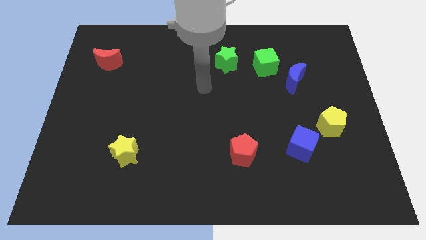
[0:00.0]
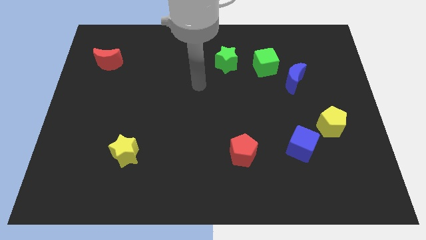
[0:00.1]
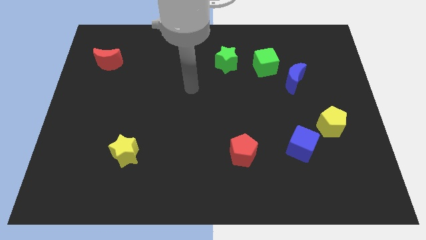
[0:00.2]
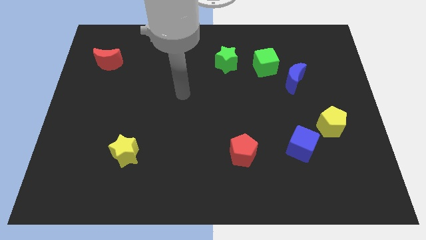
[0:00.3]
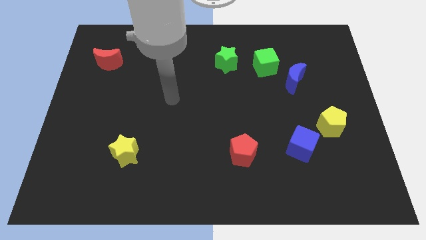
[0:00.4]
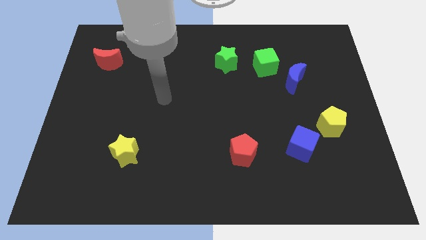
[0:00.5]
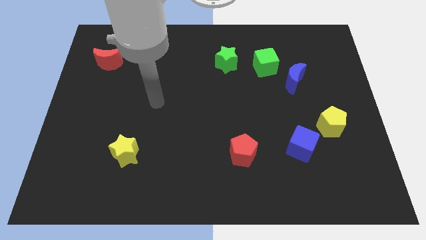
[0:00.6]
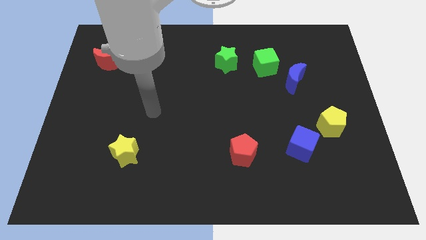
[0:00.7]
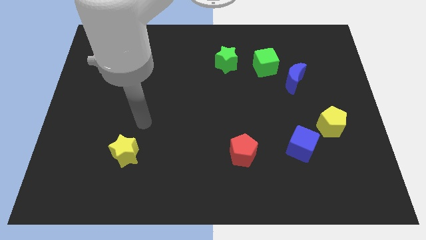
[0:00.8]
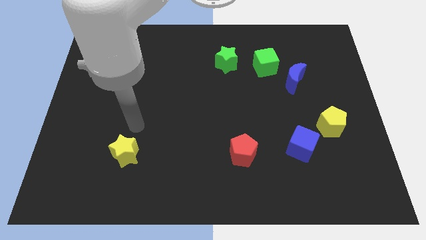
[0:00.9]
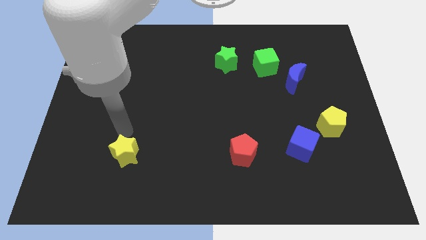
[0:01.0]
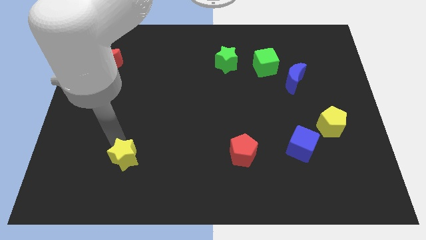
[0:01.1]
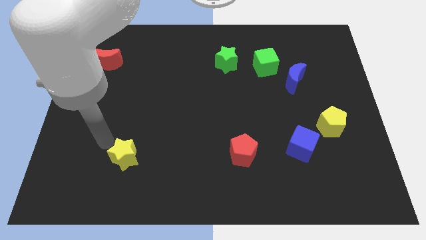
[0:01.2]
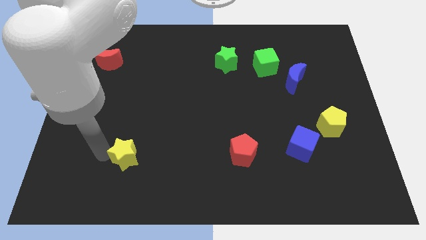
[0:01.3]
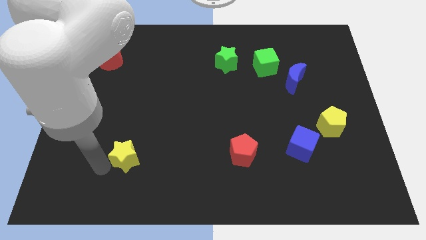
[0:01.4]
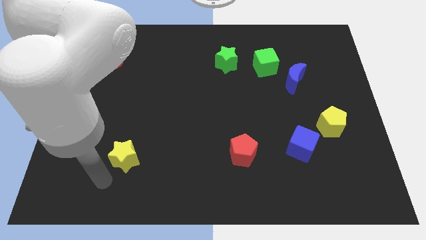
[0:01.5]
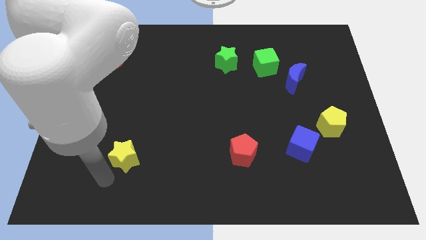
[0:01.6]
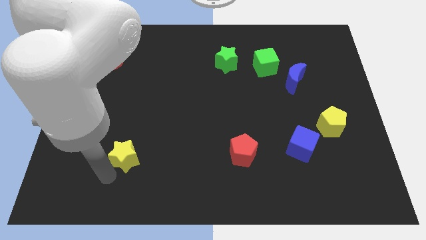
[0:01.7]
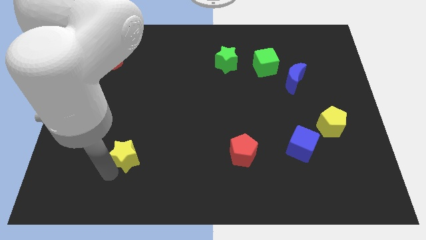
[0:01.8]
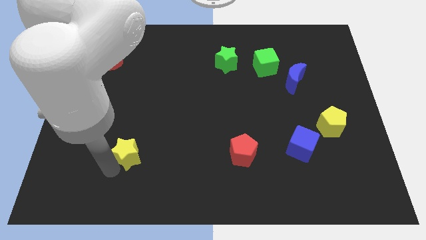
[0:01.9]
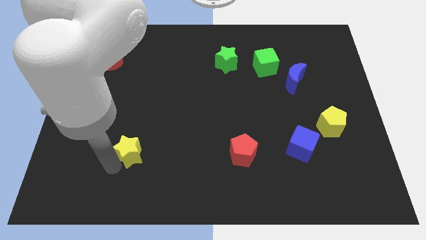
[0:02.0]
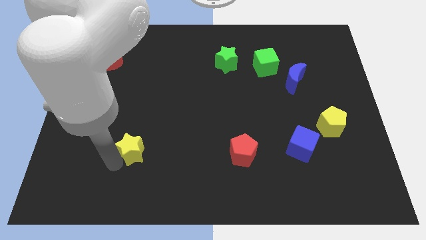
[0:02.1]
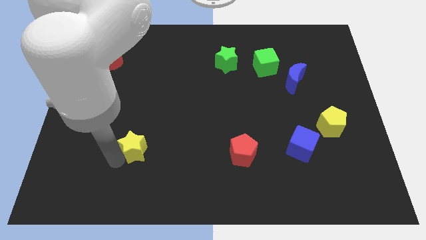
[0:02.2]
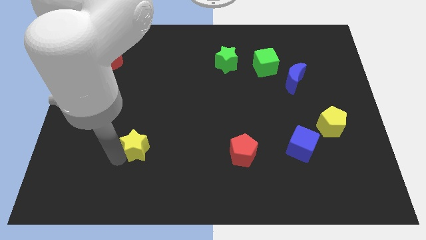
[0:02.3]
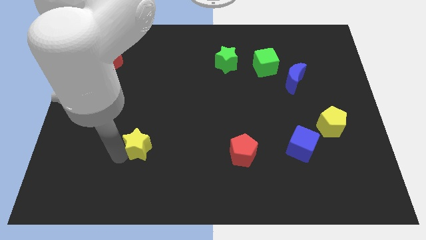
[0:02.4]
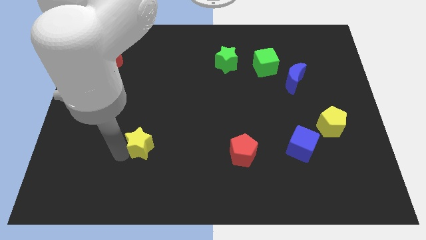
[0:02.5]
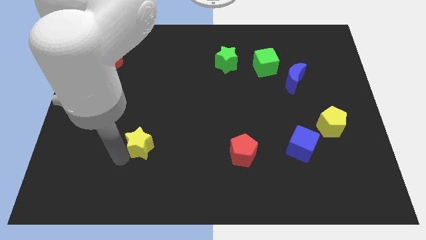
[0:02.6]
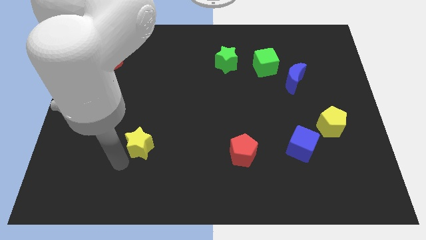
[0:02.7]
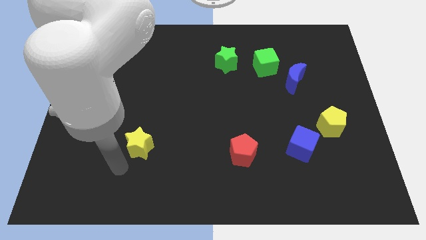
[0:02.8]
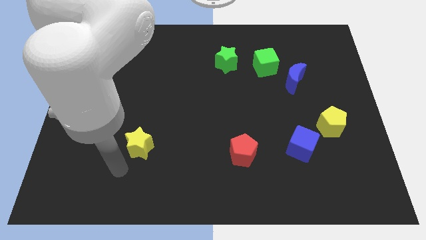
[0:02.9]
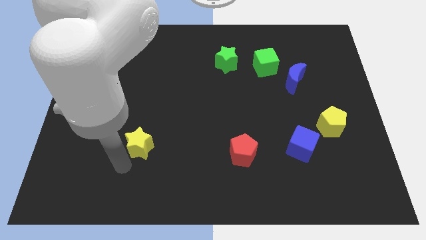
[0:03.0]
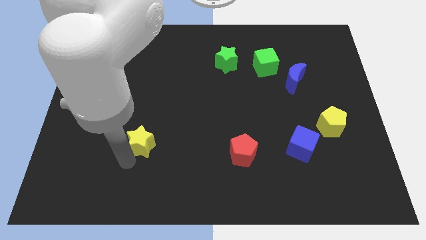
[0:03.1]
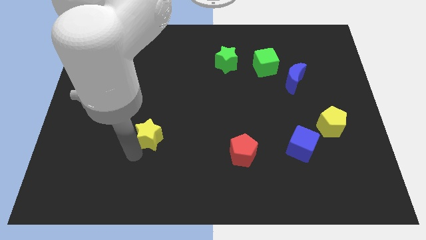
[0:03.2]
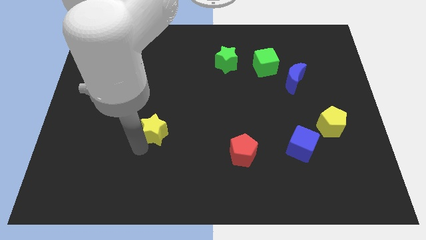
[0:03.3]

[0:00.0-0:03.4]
push the yellow star somewhat up and right diagonally

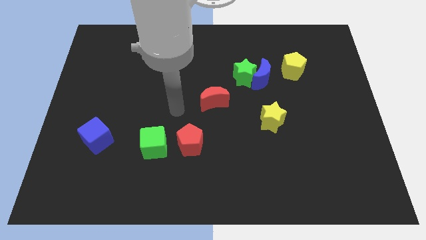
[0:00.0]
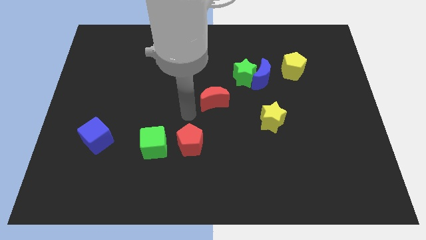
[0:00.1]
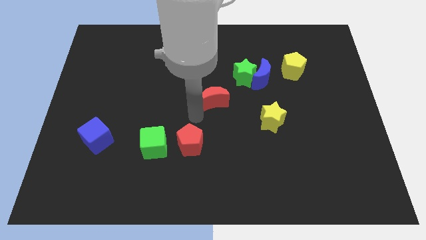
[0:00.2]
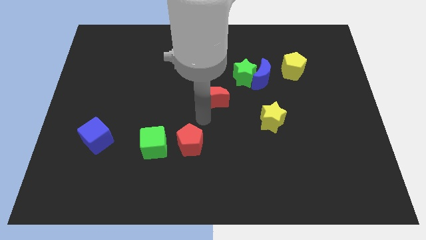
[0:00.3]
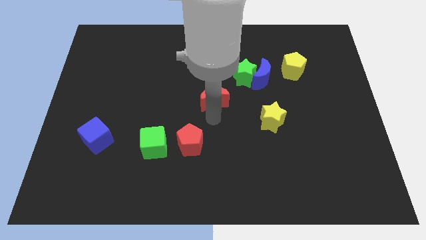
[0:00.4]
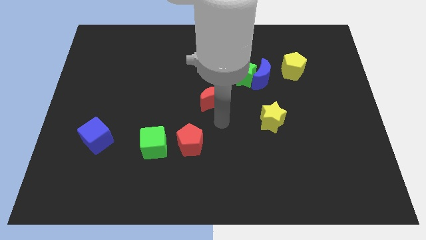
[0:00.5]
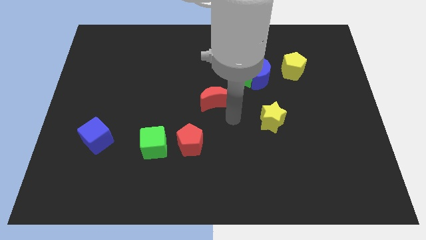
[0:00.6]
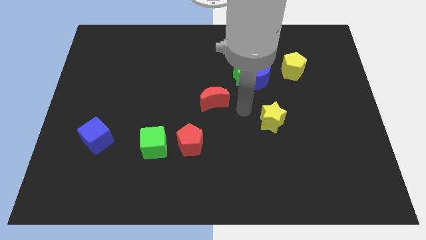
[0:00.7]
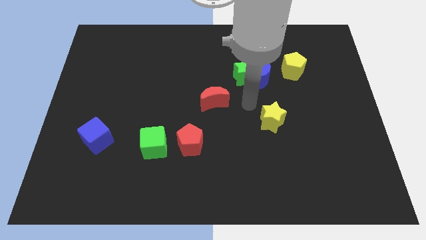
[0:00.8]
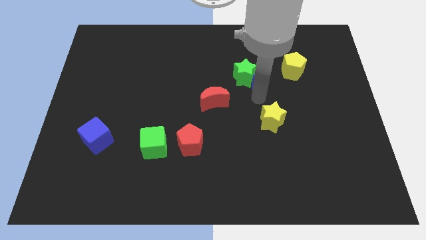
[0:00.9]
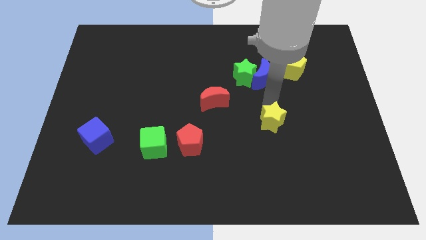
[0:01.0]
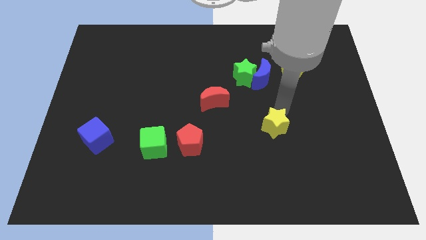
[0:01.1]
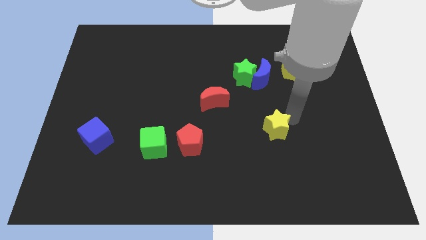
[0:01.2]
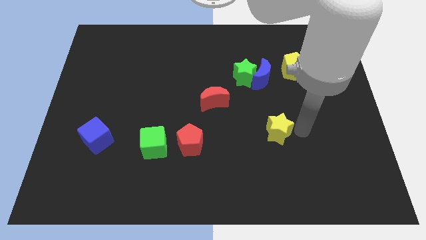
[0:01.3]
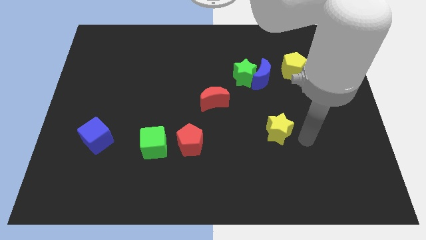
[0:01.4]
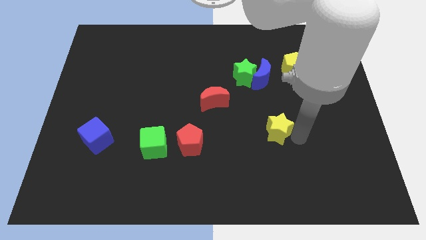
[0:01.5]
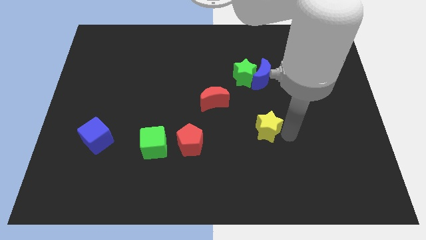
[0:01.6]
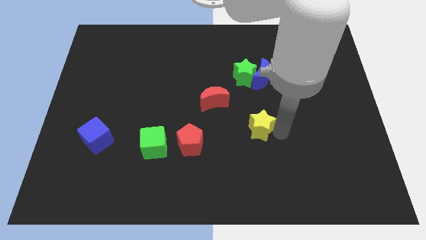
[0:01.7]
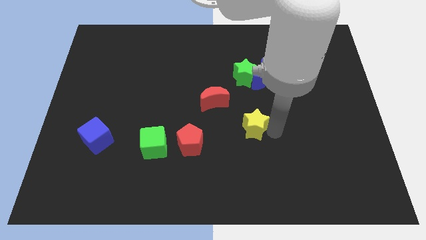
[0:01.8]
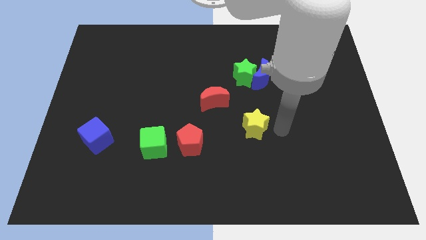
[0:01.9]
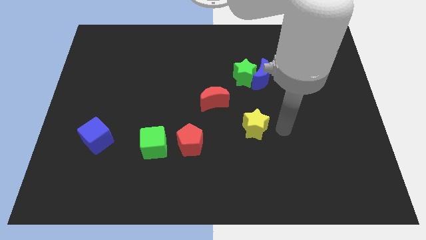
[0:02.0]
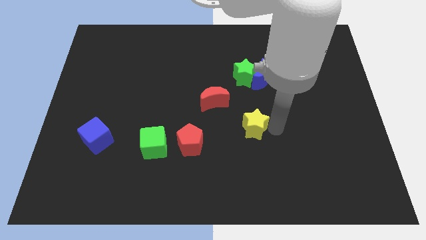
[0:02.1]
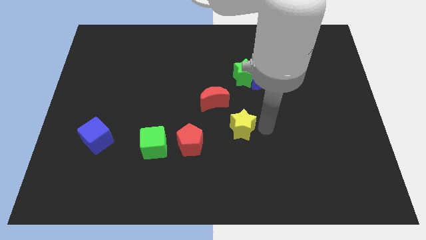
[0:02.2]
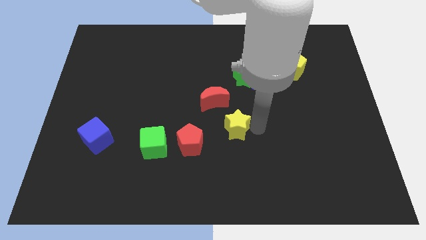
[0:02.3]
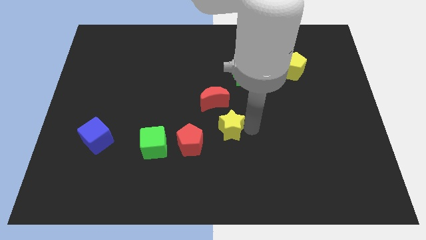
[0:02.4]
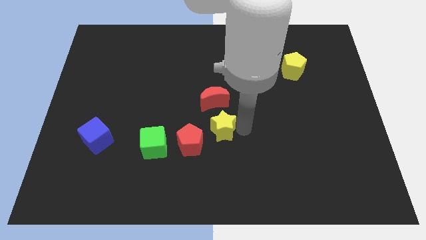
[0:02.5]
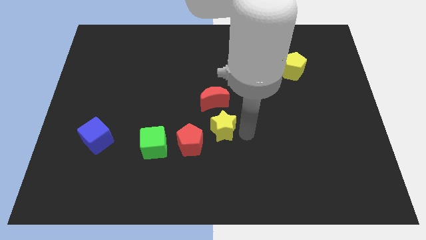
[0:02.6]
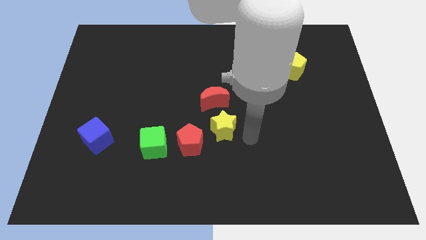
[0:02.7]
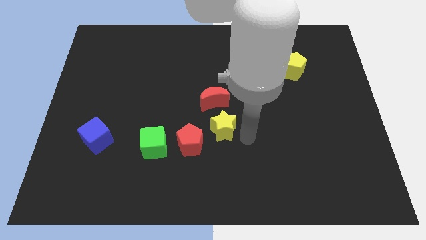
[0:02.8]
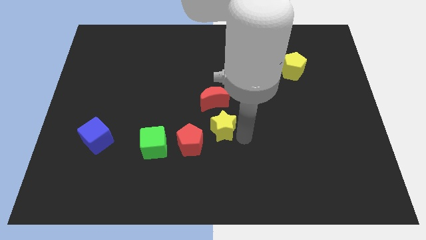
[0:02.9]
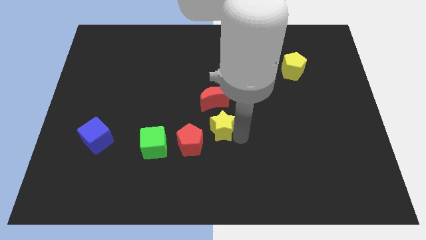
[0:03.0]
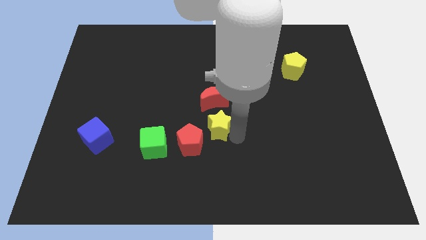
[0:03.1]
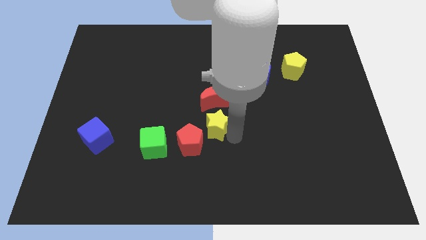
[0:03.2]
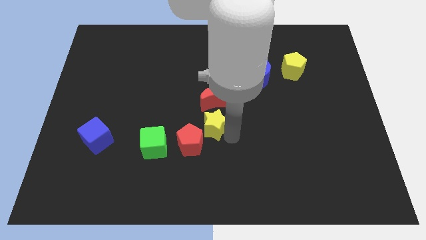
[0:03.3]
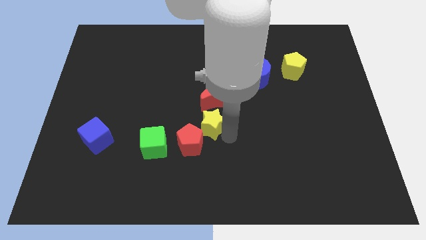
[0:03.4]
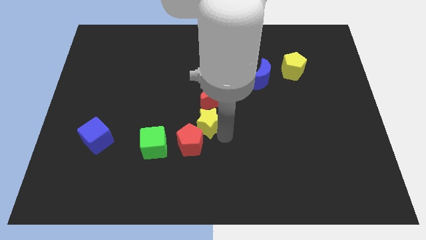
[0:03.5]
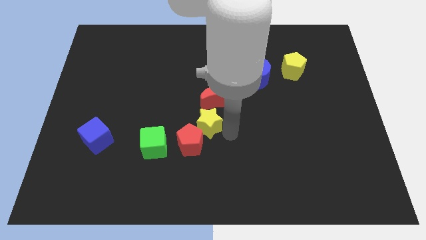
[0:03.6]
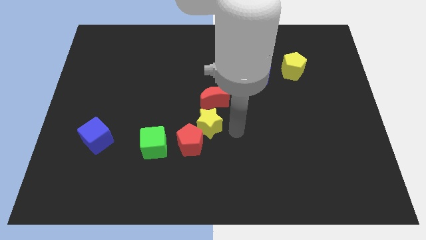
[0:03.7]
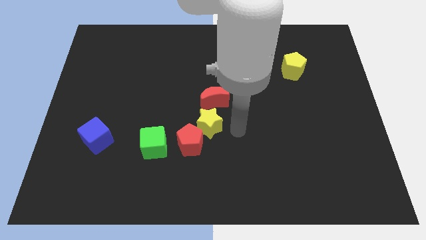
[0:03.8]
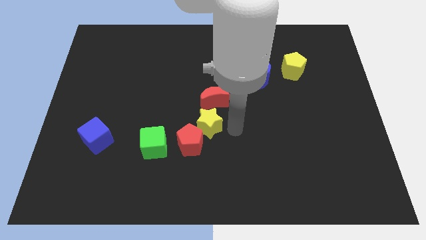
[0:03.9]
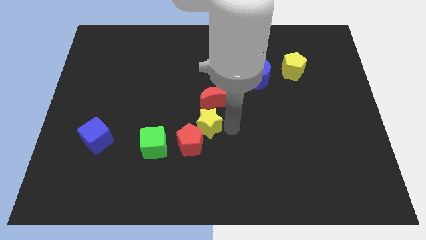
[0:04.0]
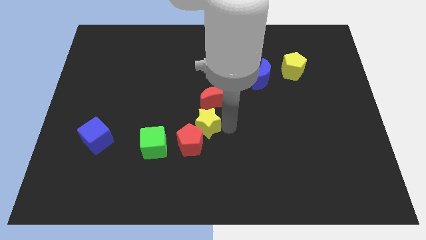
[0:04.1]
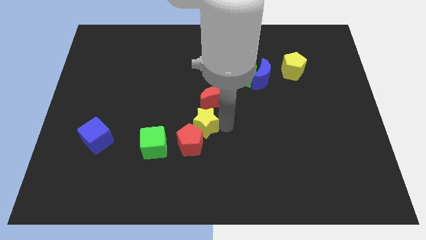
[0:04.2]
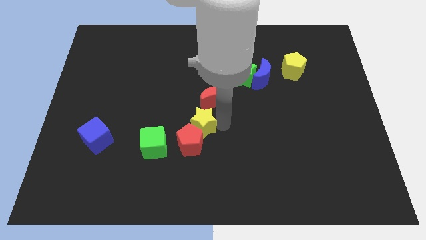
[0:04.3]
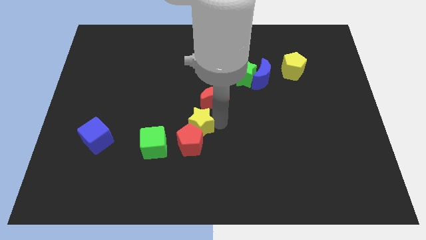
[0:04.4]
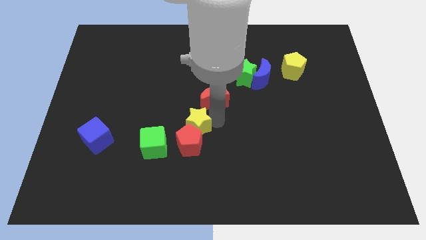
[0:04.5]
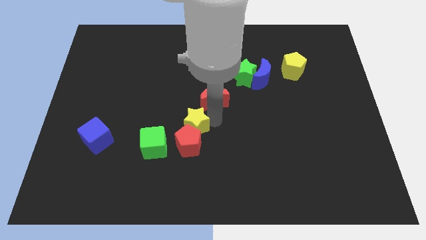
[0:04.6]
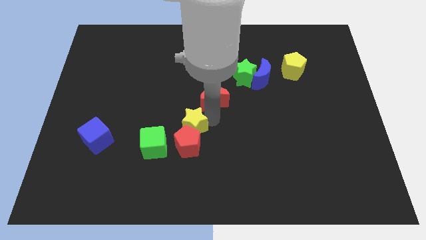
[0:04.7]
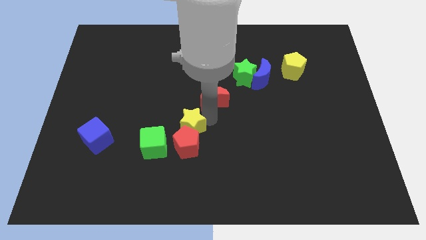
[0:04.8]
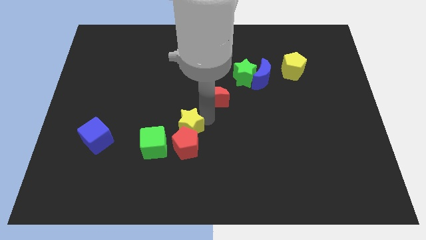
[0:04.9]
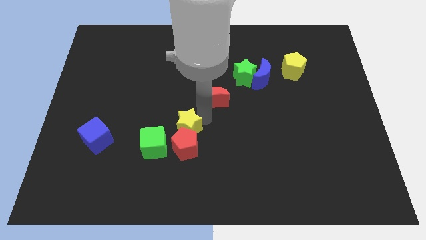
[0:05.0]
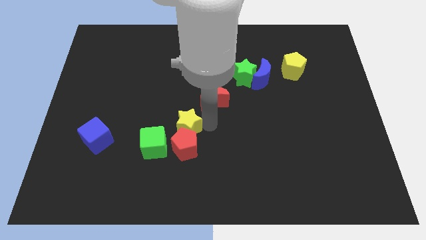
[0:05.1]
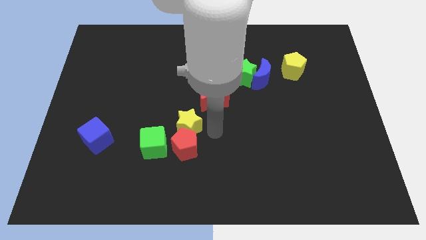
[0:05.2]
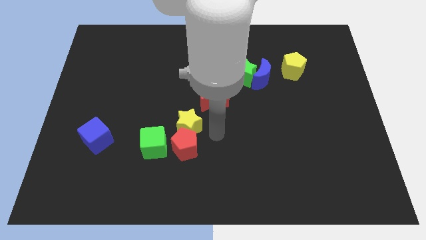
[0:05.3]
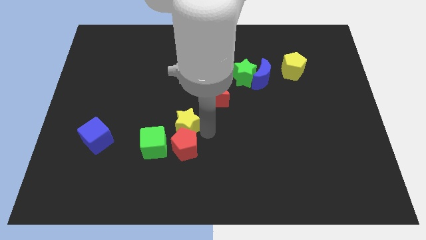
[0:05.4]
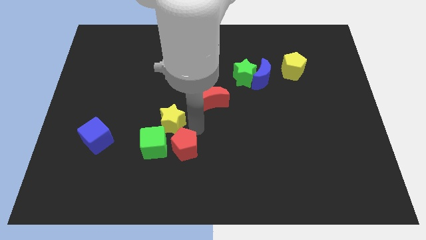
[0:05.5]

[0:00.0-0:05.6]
slide the yellow star to the left
